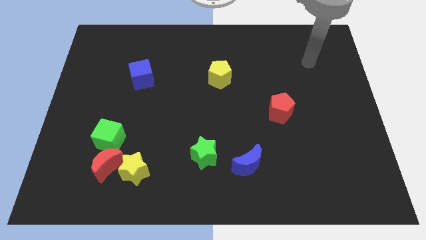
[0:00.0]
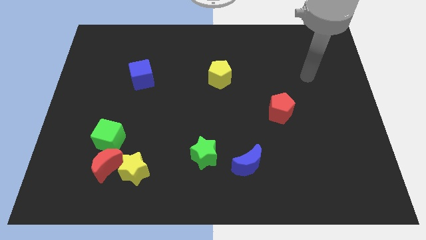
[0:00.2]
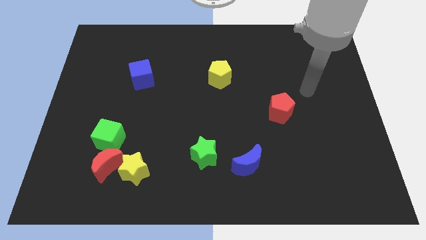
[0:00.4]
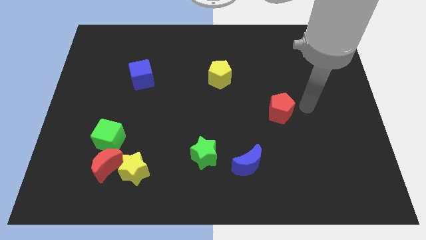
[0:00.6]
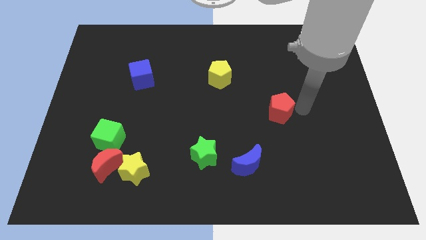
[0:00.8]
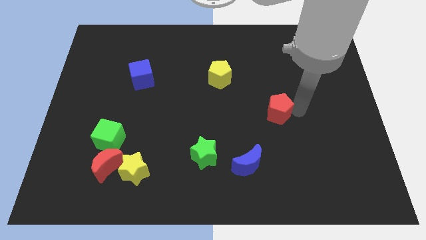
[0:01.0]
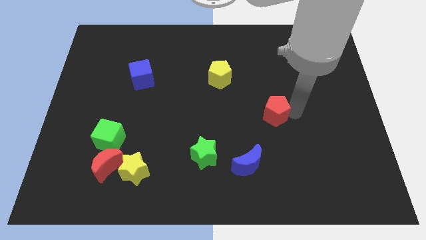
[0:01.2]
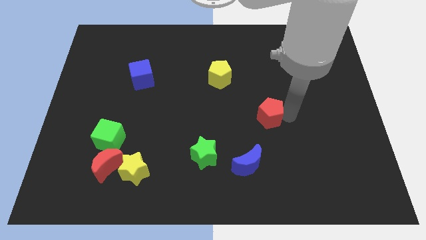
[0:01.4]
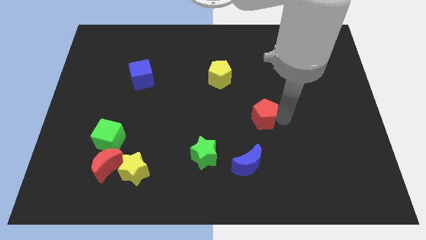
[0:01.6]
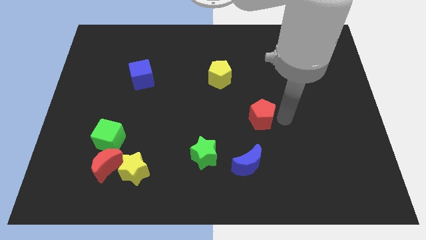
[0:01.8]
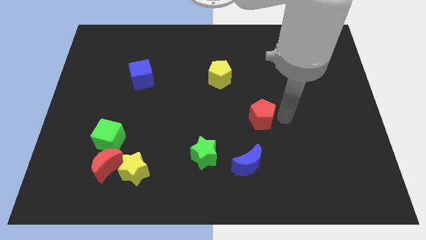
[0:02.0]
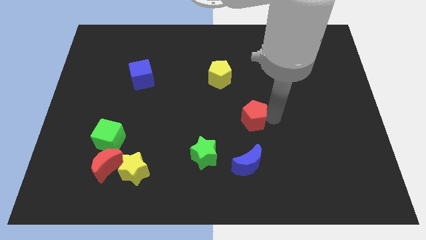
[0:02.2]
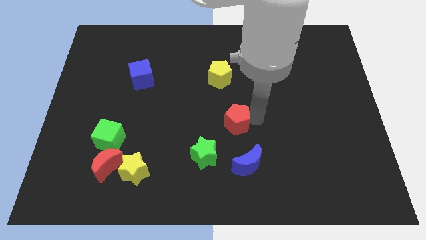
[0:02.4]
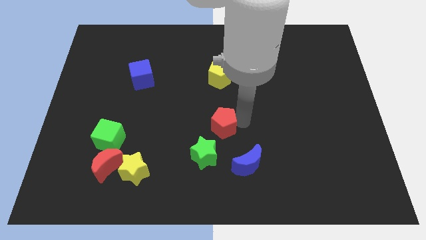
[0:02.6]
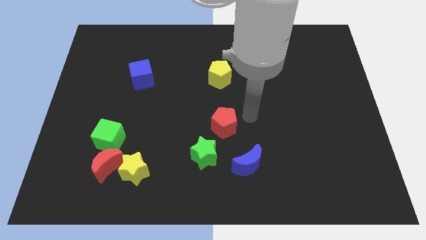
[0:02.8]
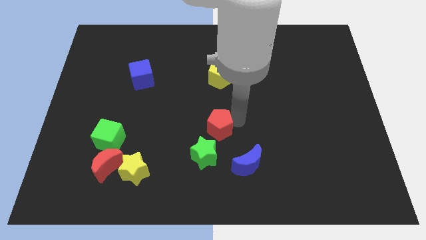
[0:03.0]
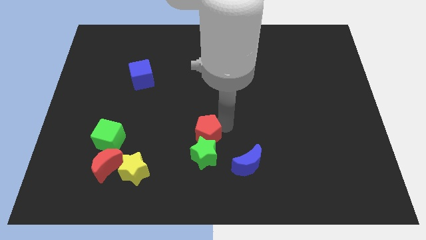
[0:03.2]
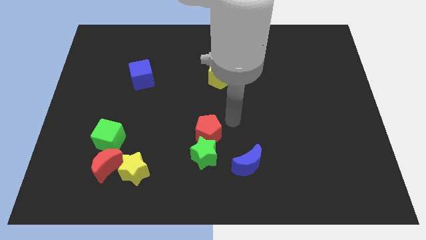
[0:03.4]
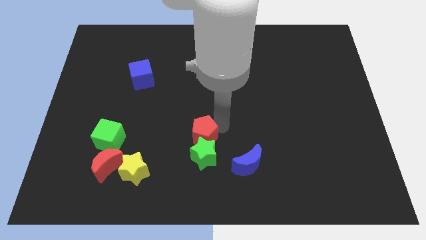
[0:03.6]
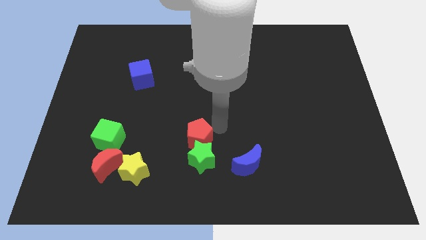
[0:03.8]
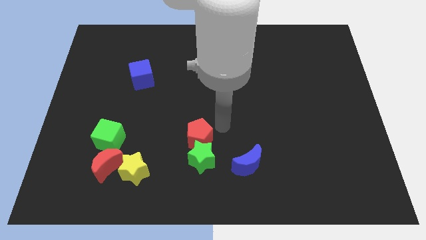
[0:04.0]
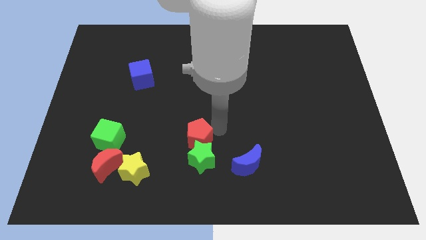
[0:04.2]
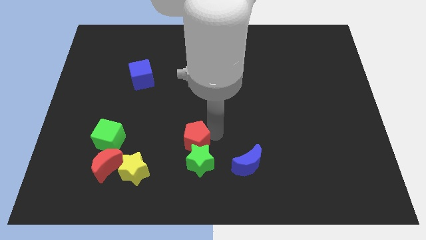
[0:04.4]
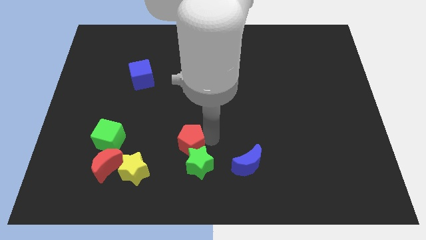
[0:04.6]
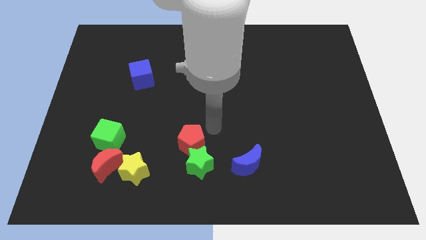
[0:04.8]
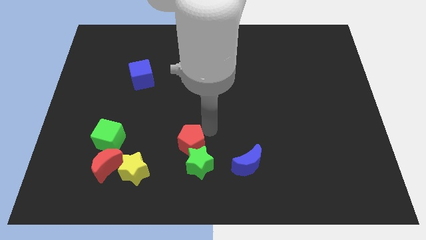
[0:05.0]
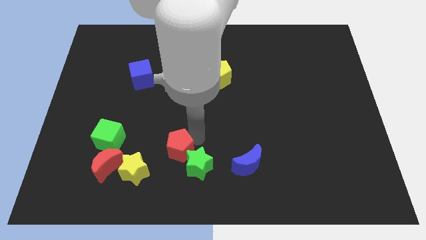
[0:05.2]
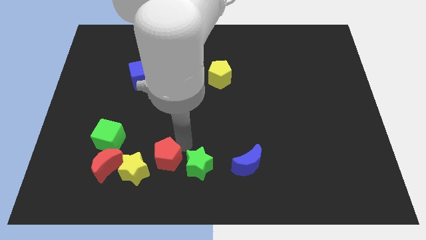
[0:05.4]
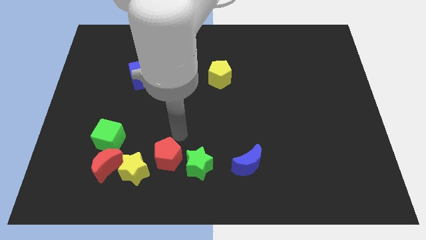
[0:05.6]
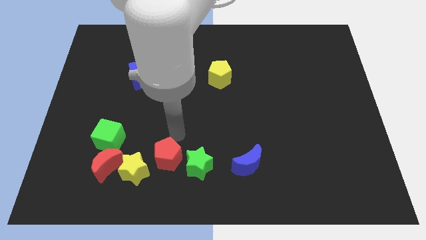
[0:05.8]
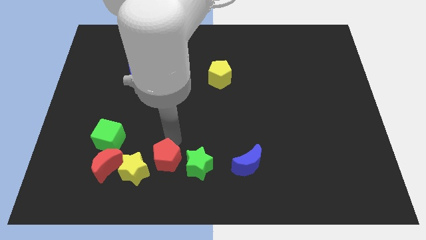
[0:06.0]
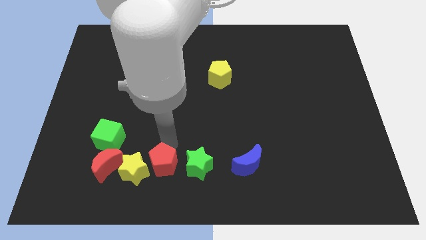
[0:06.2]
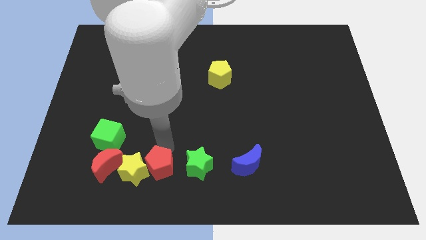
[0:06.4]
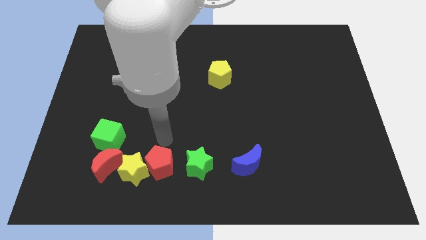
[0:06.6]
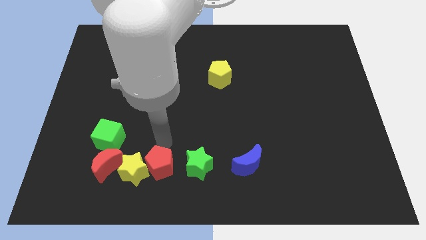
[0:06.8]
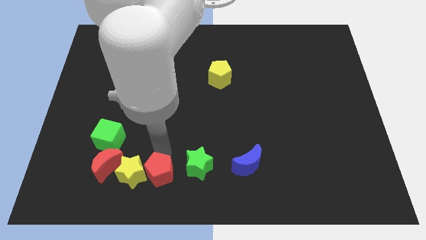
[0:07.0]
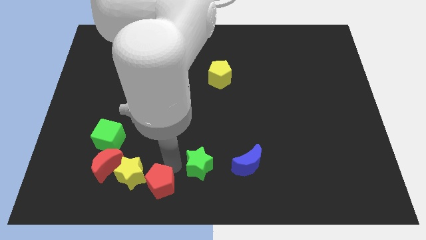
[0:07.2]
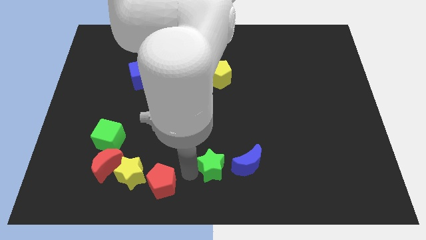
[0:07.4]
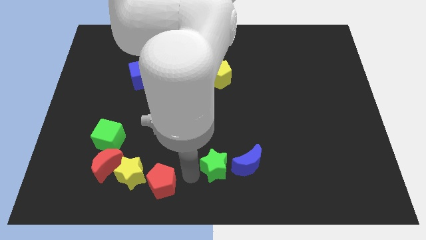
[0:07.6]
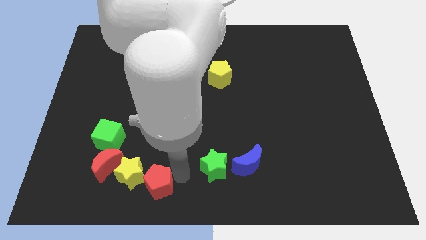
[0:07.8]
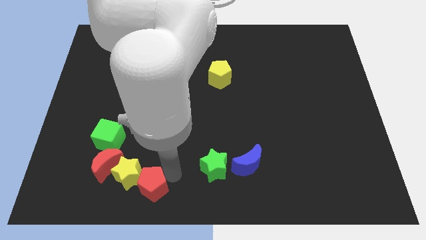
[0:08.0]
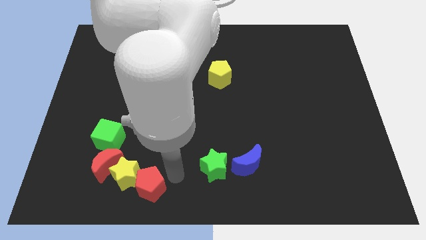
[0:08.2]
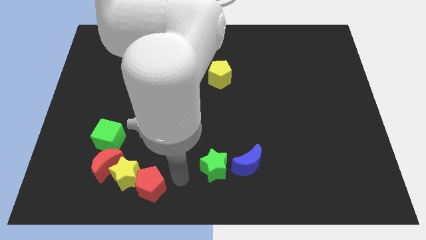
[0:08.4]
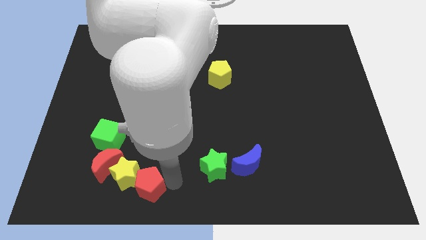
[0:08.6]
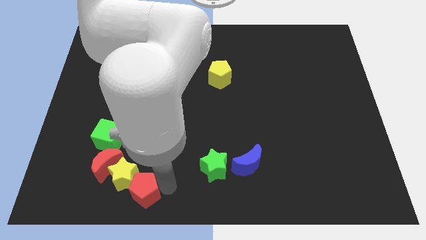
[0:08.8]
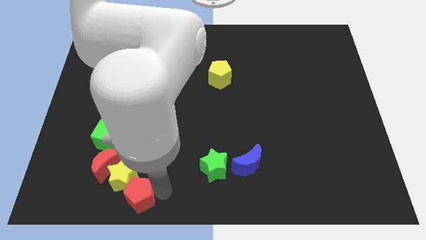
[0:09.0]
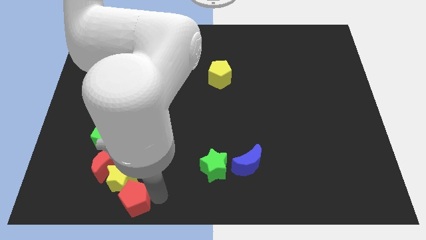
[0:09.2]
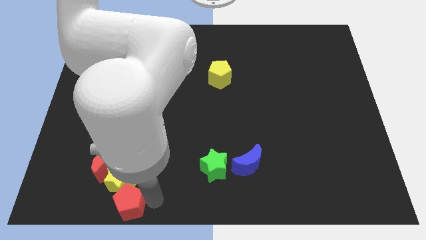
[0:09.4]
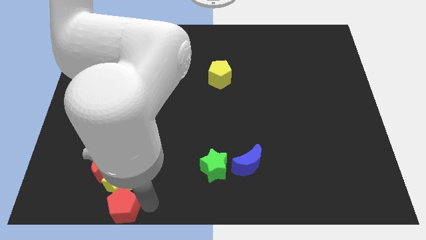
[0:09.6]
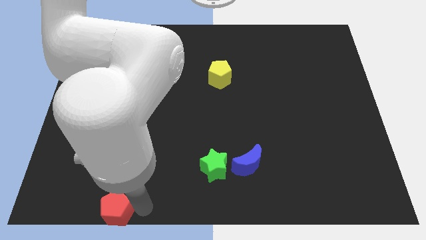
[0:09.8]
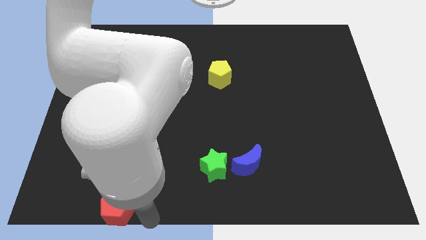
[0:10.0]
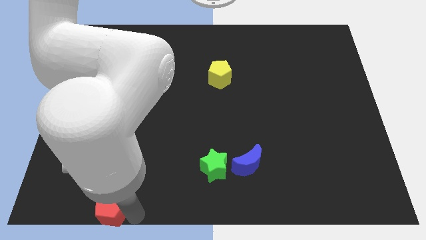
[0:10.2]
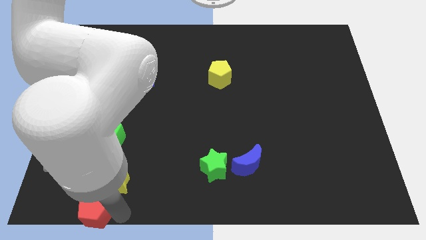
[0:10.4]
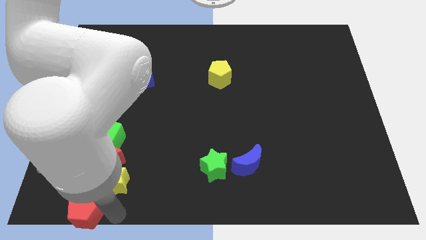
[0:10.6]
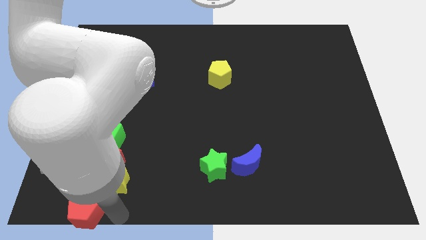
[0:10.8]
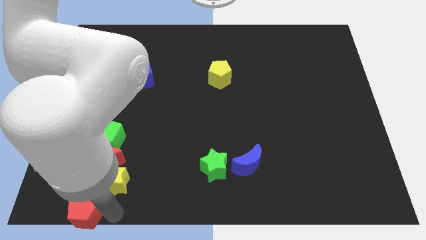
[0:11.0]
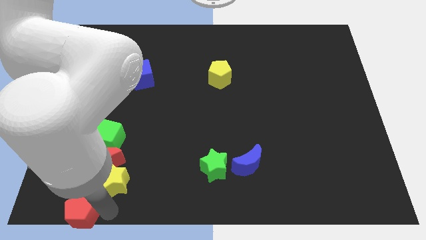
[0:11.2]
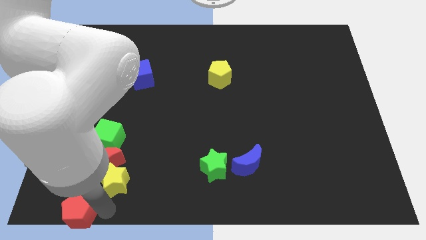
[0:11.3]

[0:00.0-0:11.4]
slide the red pentagon to the bottom left corner
